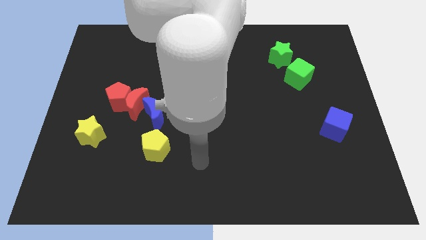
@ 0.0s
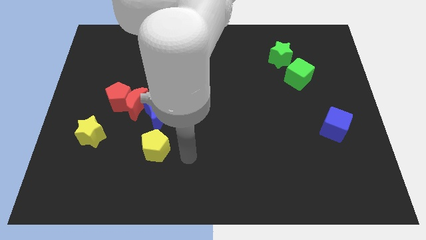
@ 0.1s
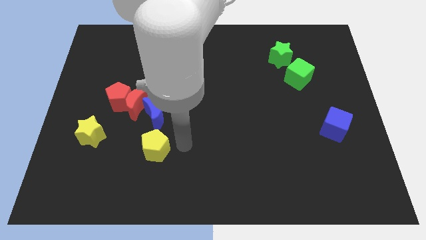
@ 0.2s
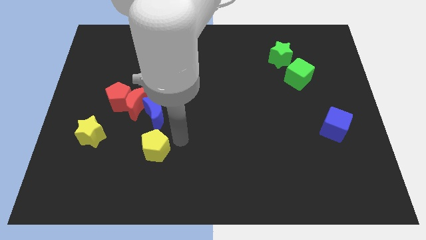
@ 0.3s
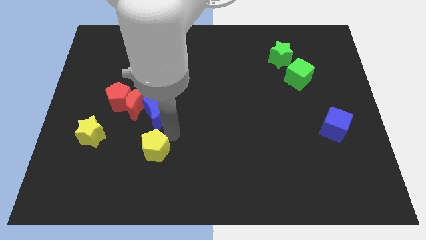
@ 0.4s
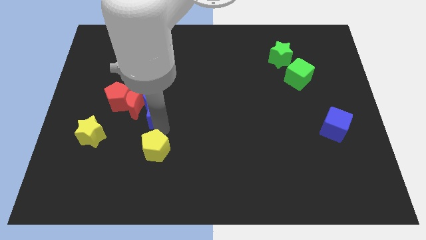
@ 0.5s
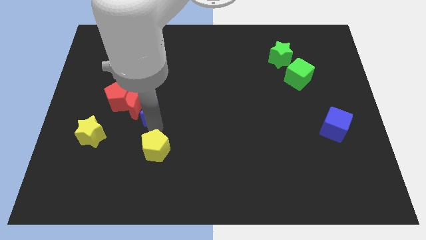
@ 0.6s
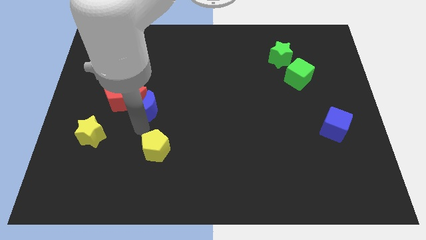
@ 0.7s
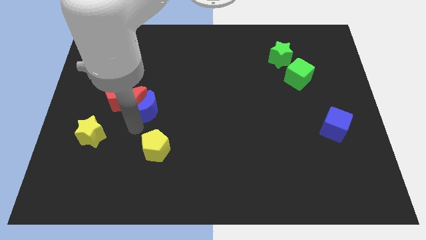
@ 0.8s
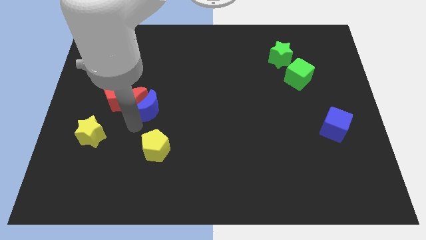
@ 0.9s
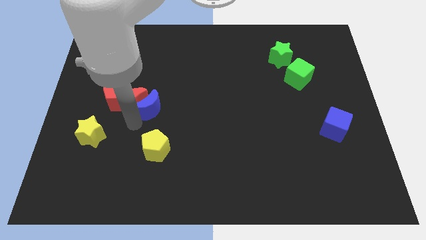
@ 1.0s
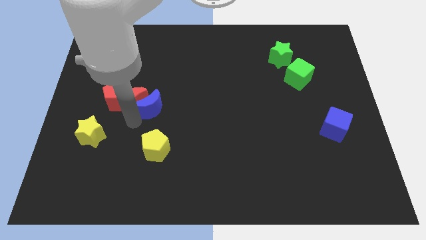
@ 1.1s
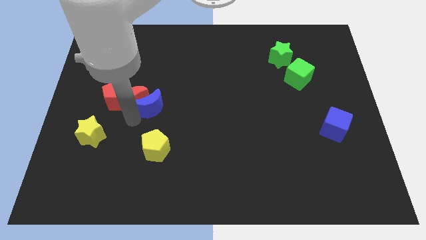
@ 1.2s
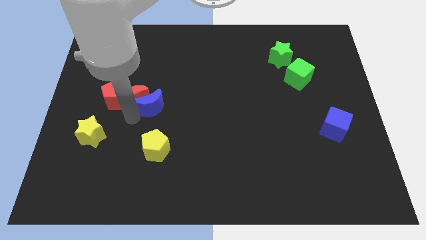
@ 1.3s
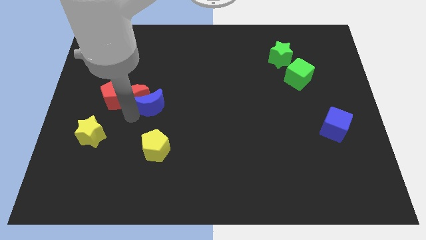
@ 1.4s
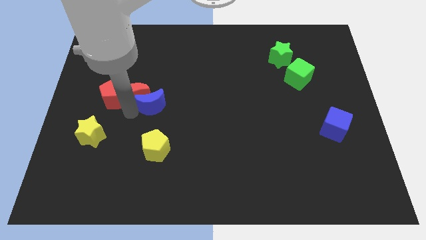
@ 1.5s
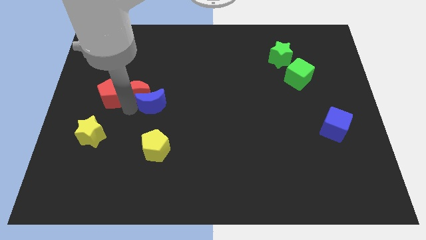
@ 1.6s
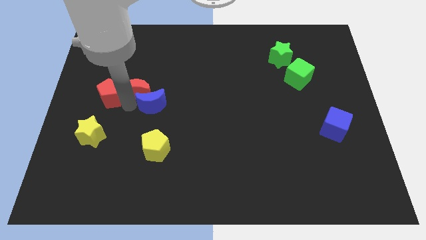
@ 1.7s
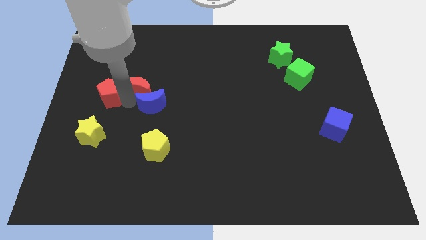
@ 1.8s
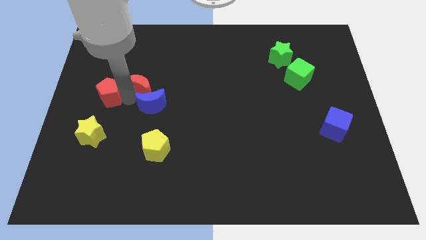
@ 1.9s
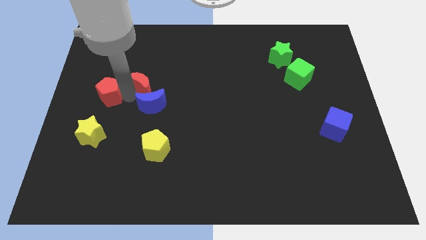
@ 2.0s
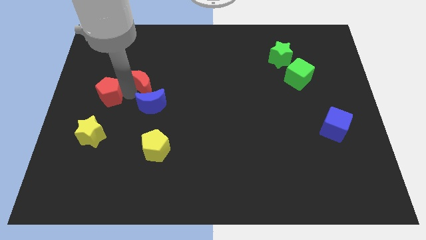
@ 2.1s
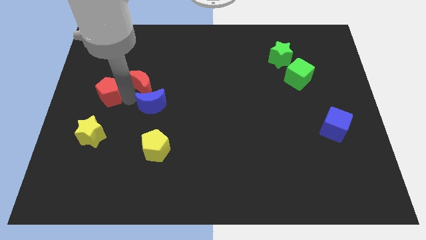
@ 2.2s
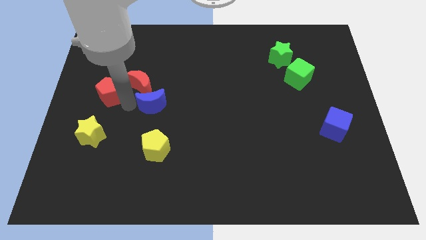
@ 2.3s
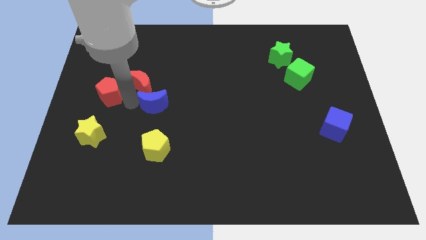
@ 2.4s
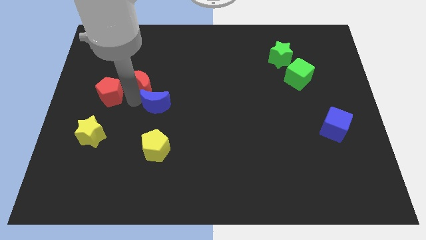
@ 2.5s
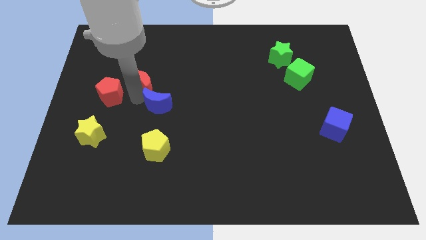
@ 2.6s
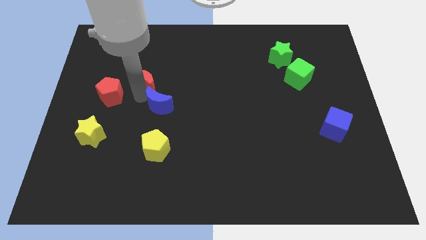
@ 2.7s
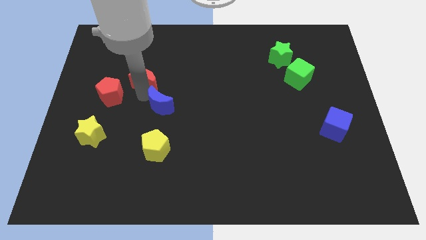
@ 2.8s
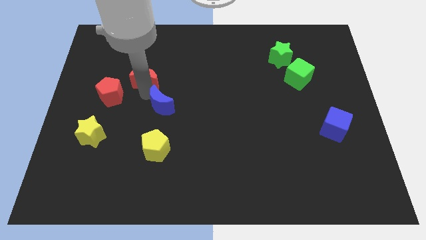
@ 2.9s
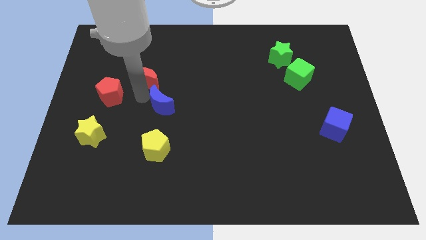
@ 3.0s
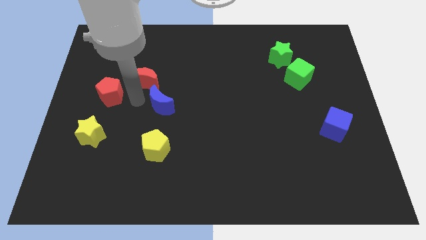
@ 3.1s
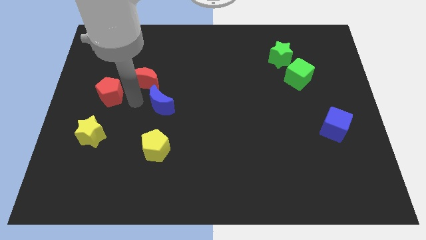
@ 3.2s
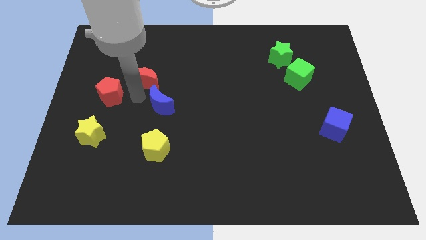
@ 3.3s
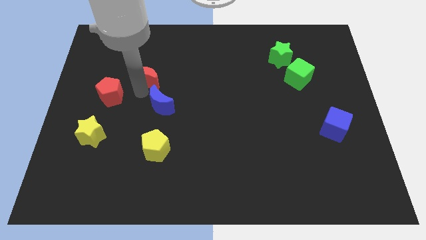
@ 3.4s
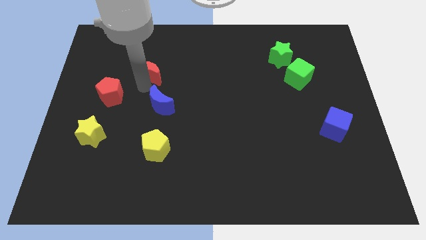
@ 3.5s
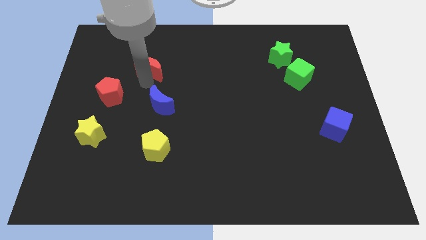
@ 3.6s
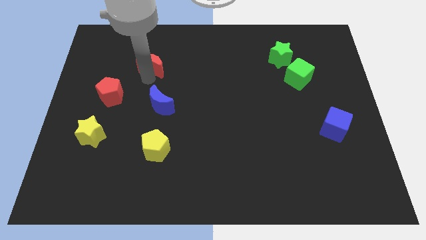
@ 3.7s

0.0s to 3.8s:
move the red moon away from the red pentagon and blue moon

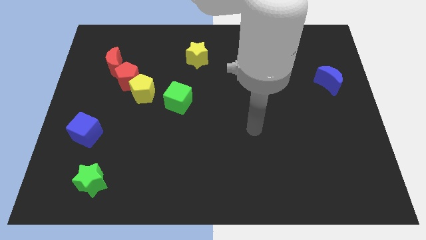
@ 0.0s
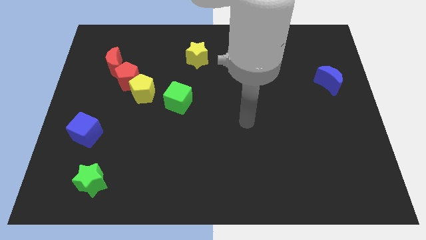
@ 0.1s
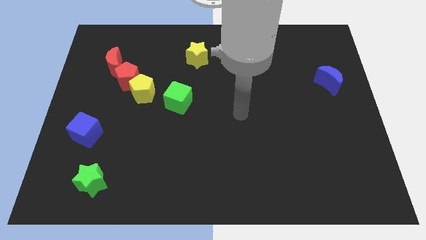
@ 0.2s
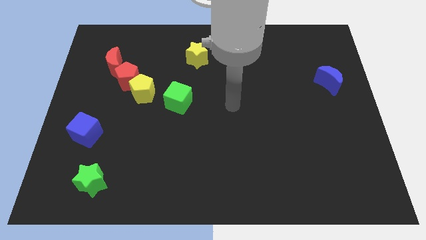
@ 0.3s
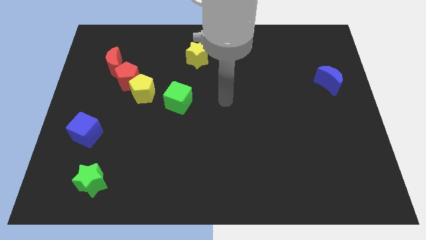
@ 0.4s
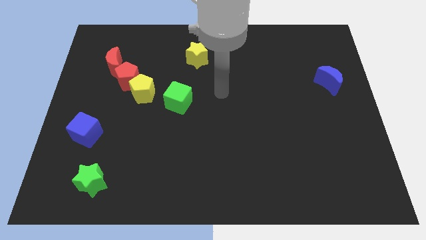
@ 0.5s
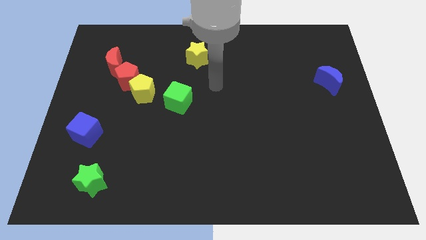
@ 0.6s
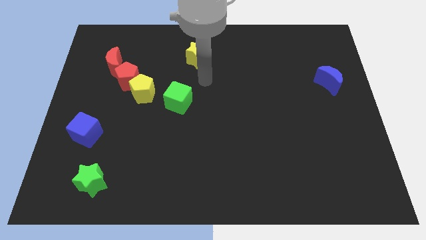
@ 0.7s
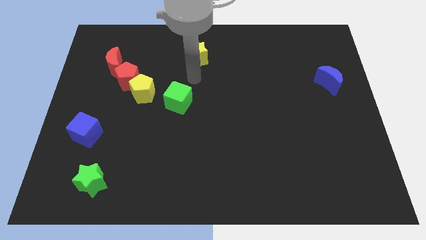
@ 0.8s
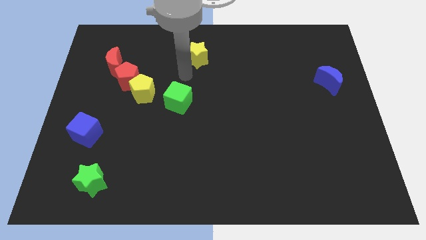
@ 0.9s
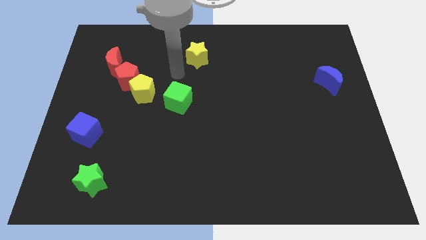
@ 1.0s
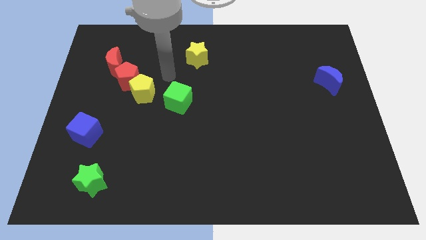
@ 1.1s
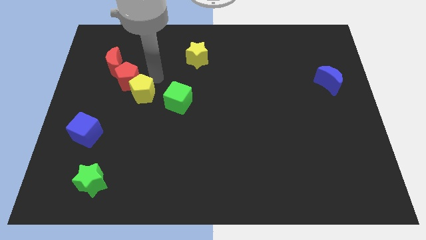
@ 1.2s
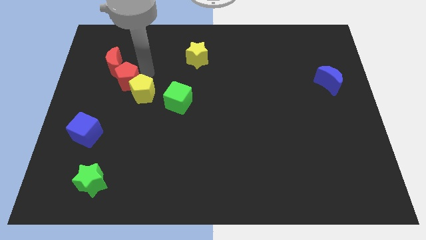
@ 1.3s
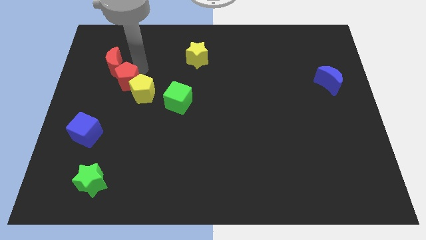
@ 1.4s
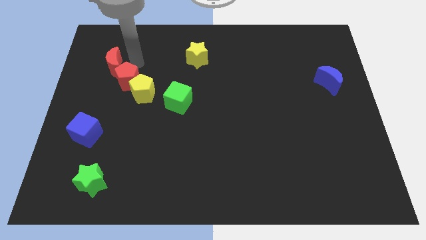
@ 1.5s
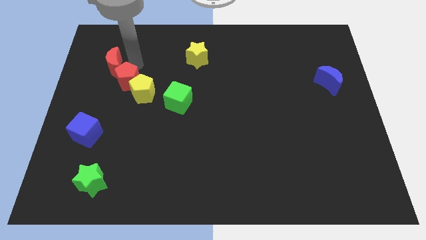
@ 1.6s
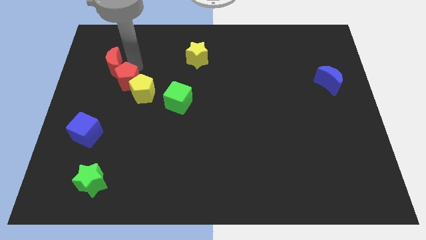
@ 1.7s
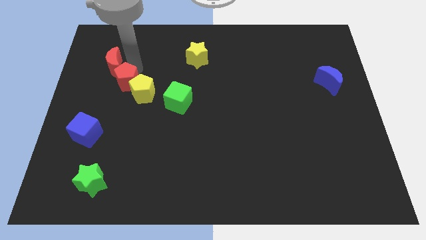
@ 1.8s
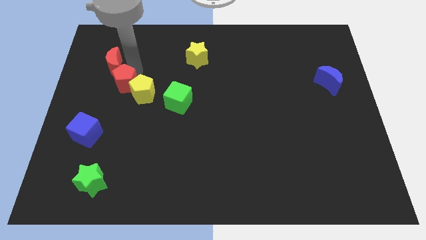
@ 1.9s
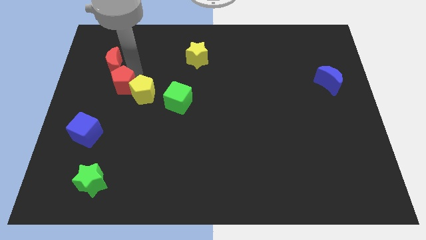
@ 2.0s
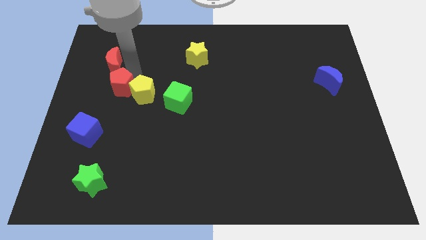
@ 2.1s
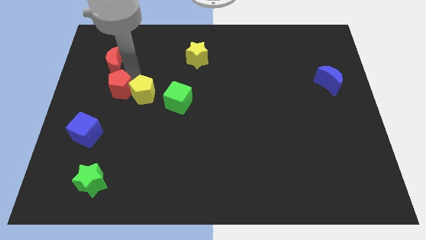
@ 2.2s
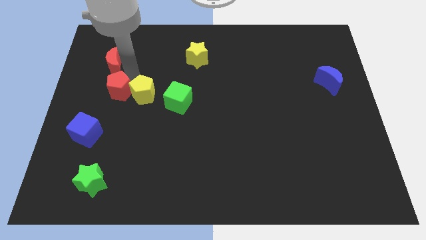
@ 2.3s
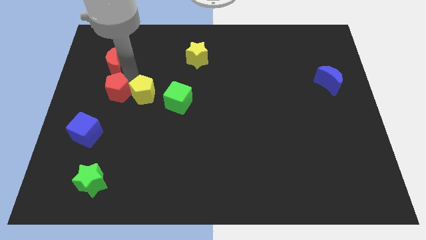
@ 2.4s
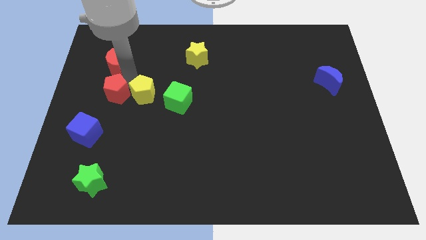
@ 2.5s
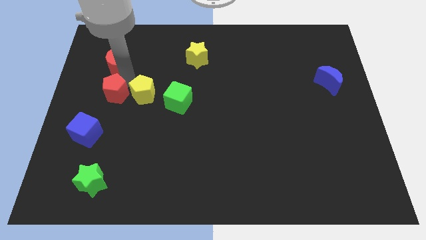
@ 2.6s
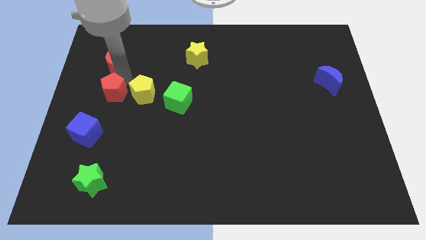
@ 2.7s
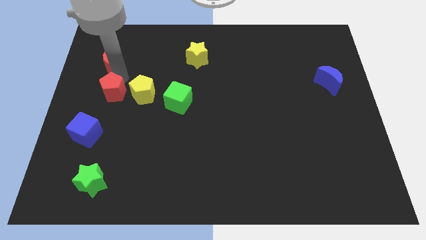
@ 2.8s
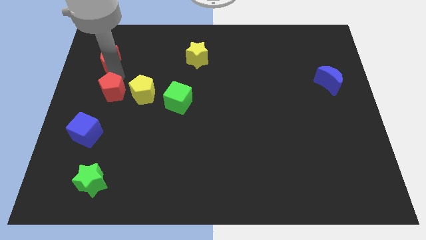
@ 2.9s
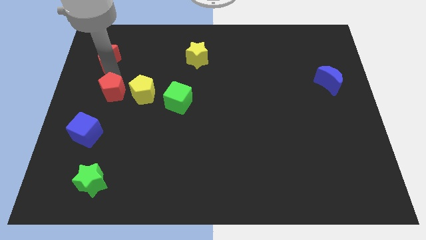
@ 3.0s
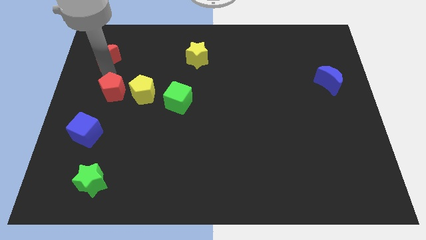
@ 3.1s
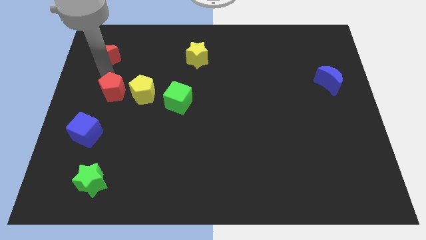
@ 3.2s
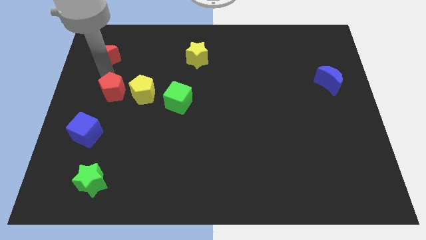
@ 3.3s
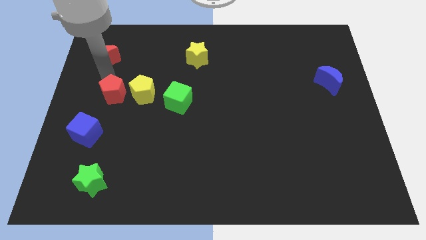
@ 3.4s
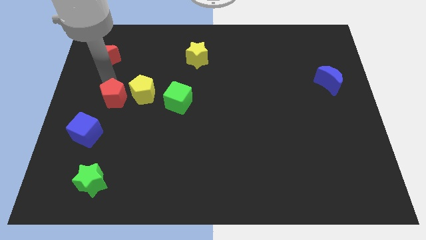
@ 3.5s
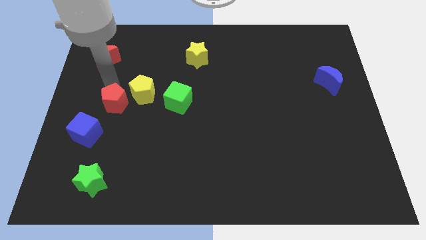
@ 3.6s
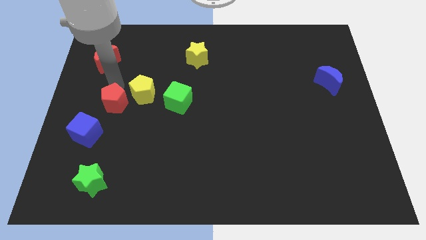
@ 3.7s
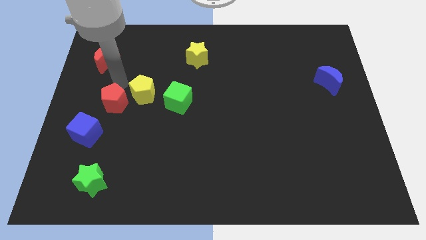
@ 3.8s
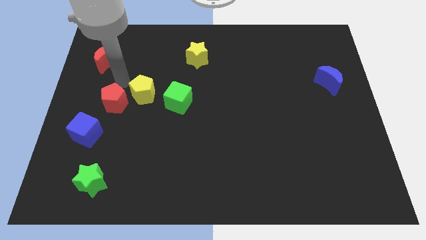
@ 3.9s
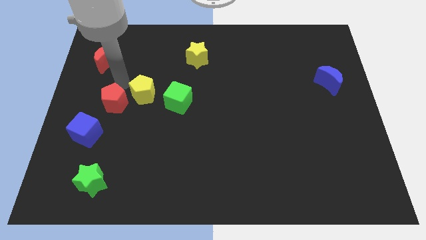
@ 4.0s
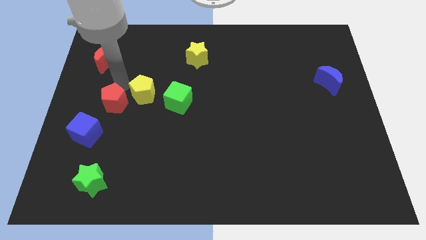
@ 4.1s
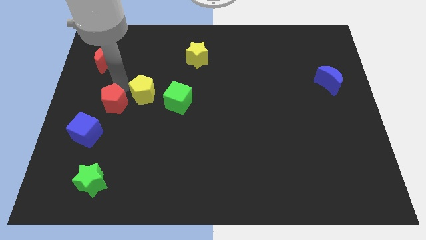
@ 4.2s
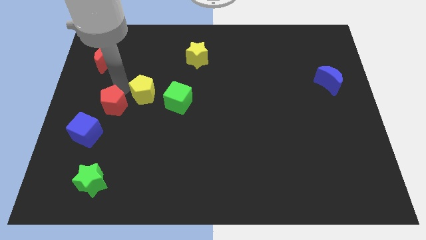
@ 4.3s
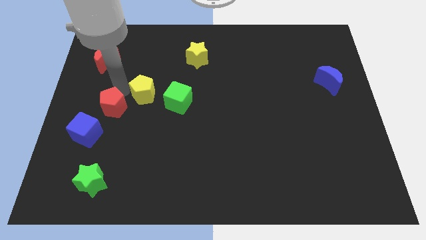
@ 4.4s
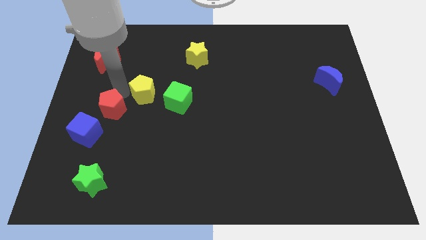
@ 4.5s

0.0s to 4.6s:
separate the red pentagon from the yellow pentagon and red moon

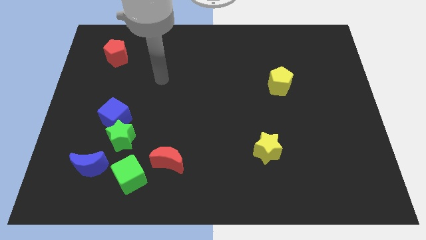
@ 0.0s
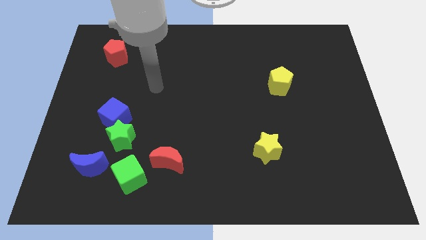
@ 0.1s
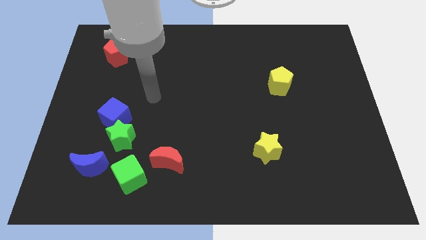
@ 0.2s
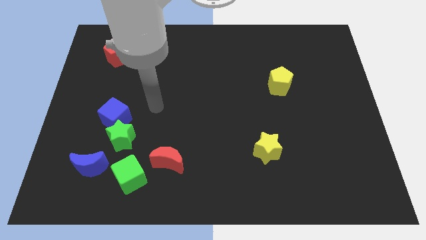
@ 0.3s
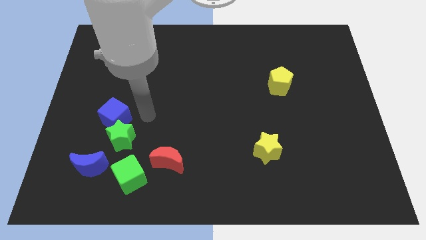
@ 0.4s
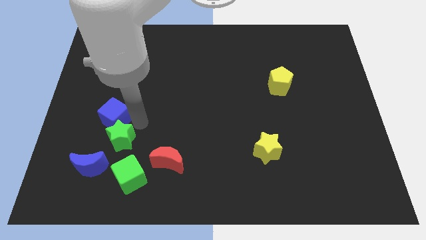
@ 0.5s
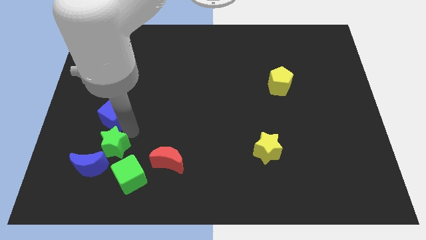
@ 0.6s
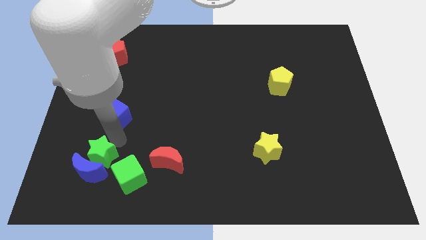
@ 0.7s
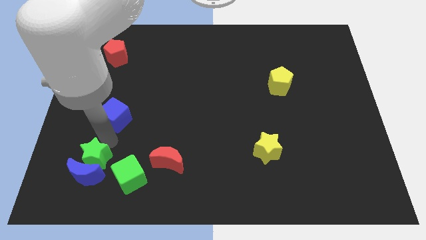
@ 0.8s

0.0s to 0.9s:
move the blue cube away from the green star
